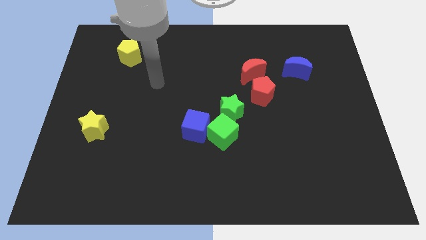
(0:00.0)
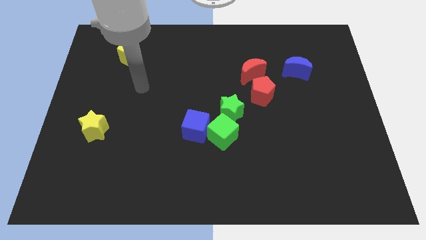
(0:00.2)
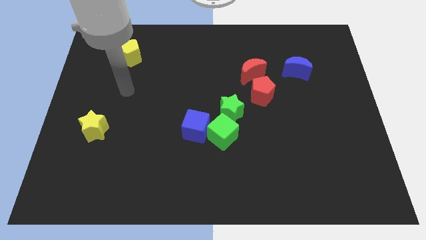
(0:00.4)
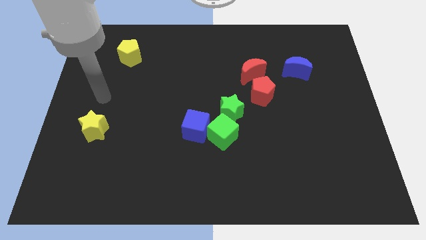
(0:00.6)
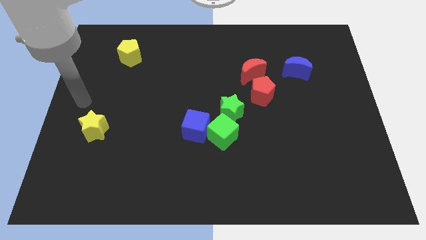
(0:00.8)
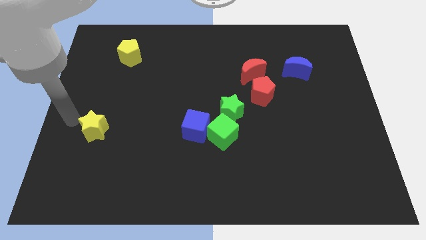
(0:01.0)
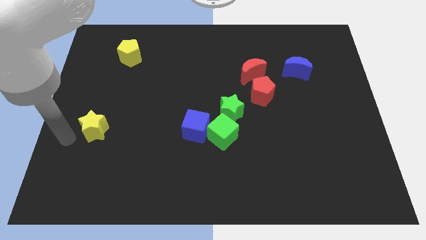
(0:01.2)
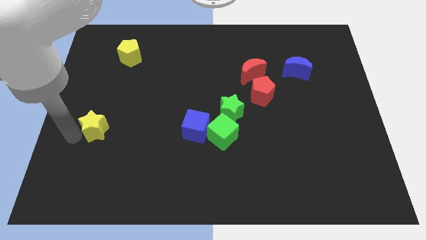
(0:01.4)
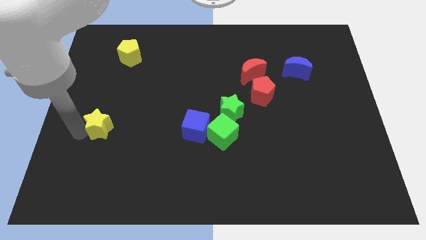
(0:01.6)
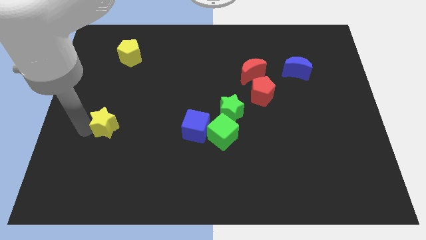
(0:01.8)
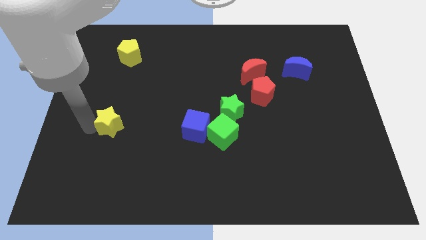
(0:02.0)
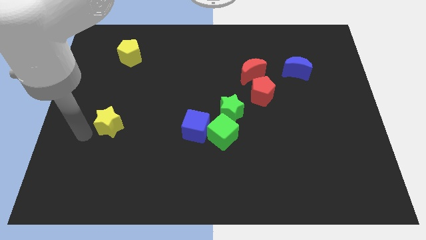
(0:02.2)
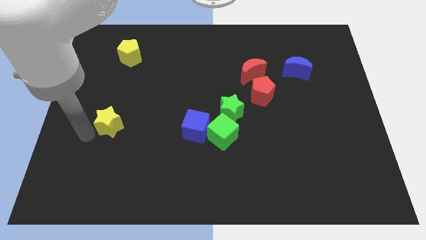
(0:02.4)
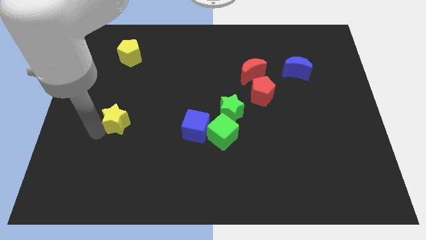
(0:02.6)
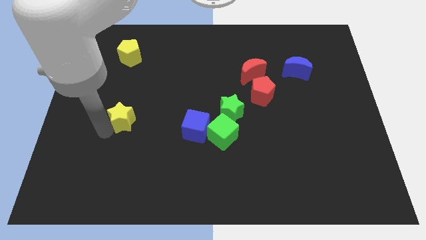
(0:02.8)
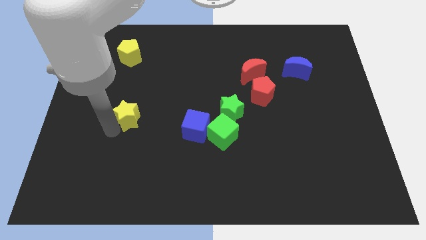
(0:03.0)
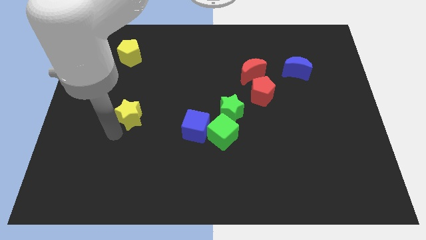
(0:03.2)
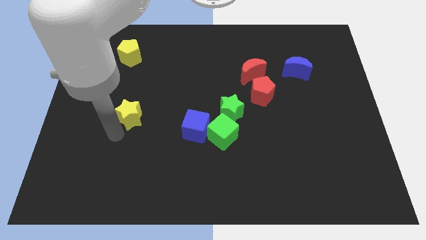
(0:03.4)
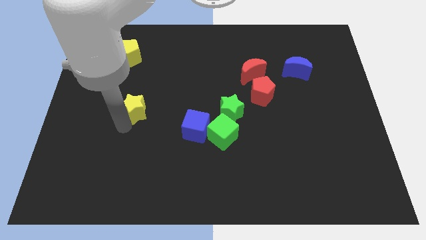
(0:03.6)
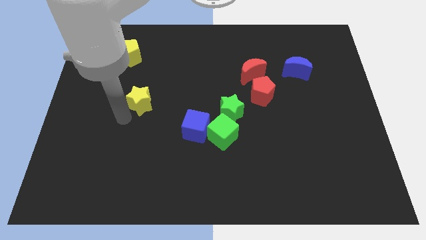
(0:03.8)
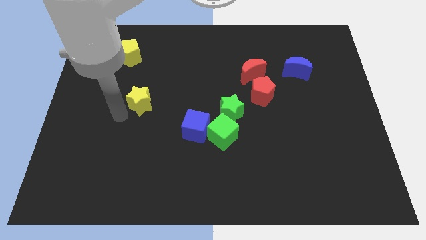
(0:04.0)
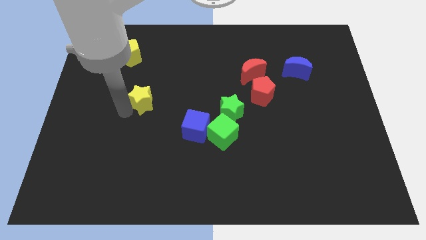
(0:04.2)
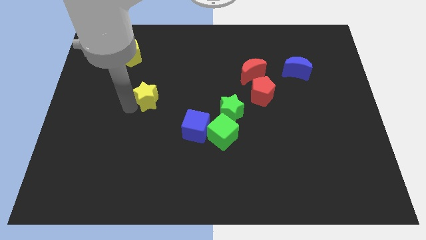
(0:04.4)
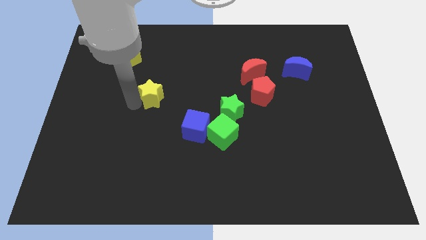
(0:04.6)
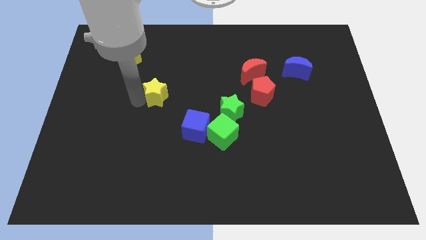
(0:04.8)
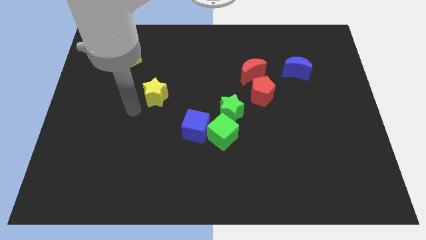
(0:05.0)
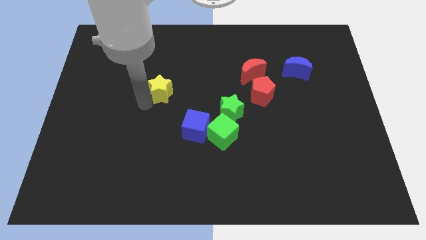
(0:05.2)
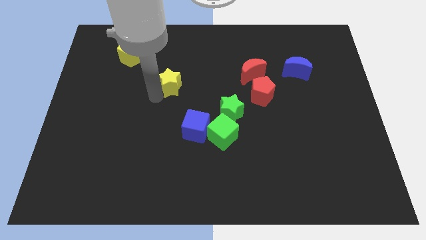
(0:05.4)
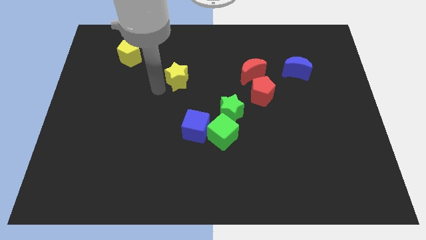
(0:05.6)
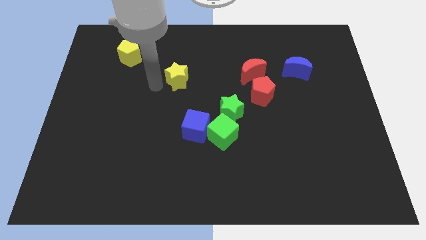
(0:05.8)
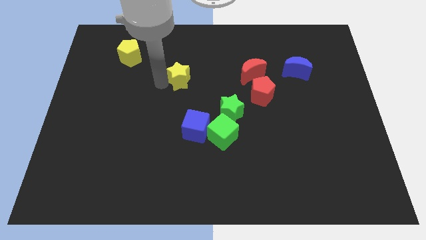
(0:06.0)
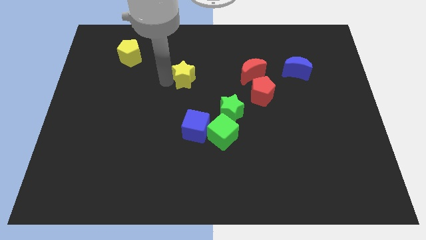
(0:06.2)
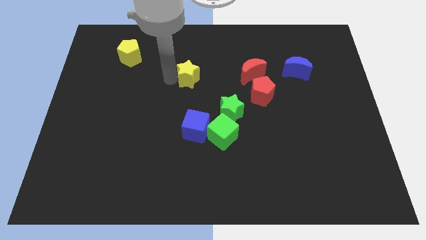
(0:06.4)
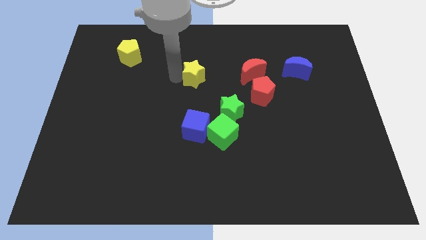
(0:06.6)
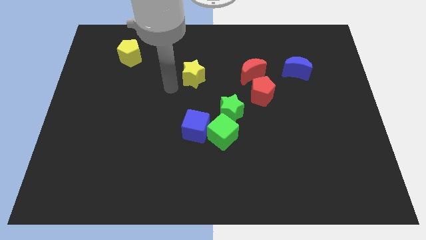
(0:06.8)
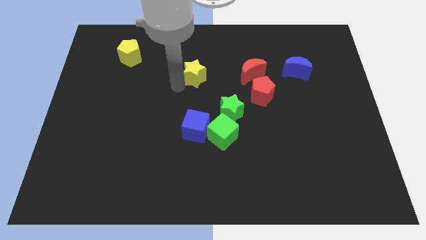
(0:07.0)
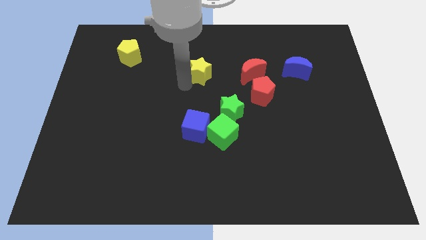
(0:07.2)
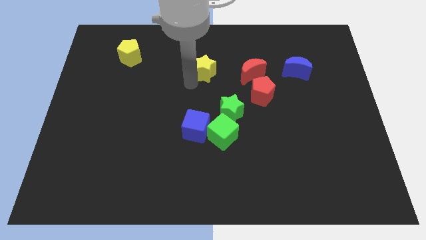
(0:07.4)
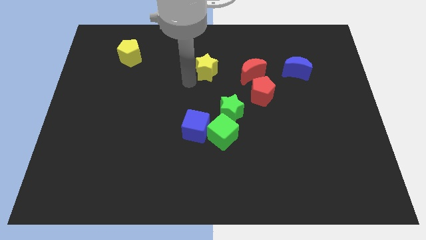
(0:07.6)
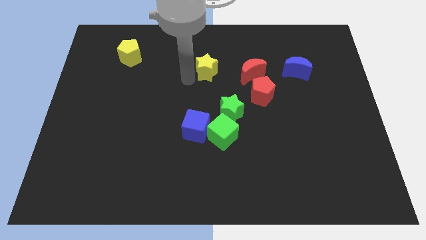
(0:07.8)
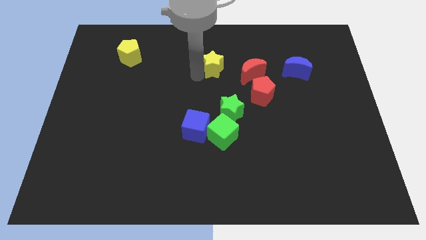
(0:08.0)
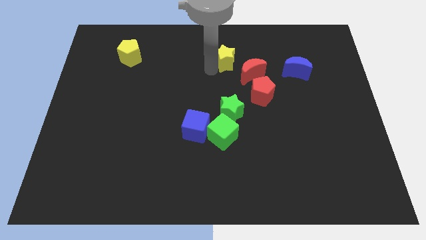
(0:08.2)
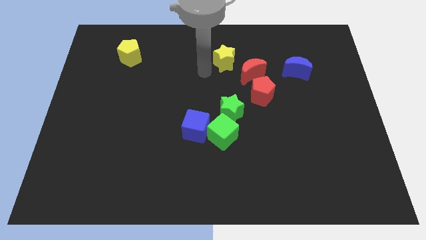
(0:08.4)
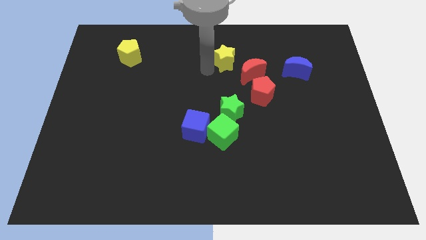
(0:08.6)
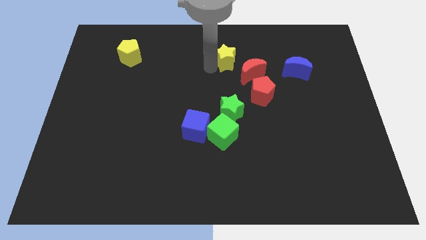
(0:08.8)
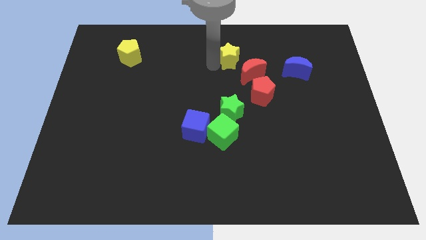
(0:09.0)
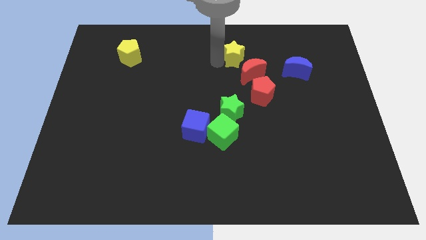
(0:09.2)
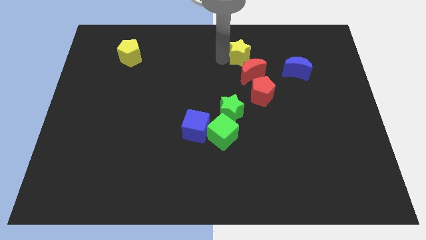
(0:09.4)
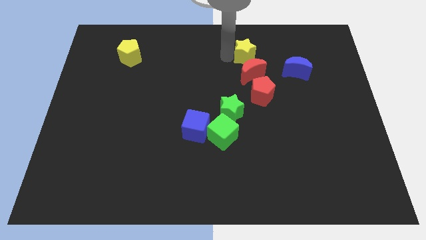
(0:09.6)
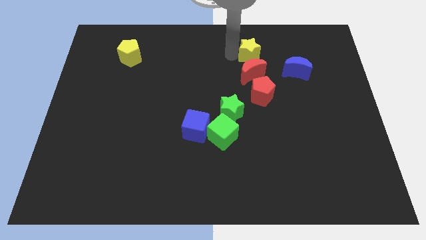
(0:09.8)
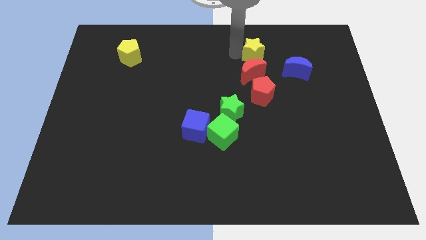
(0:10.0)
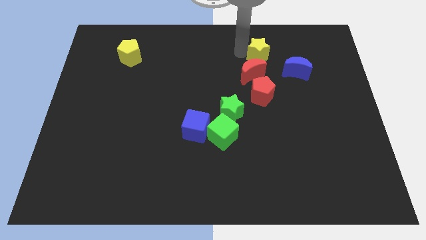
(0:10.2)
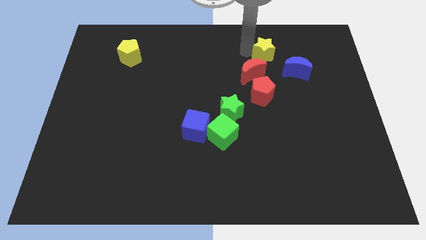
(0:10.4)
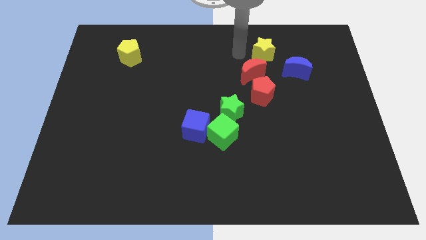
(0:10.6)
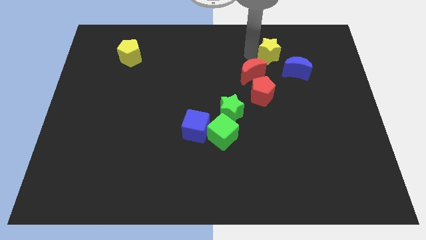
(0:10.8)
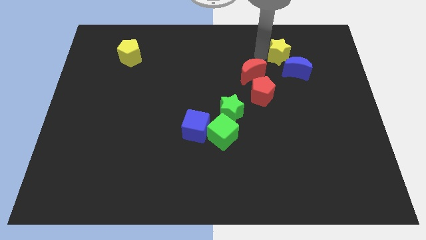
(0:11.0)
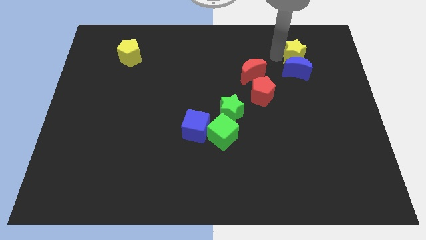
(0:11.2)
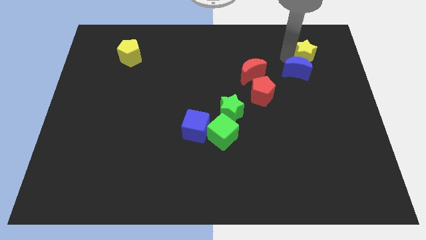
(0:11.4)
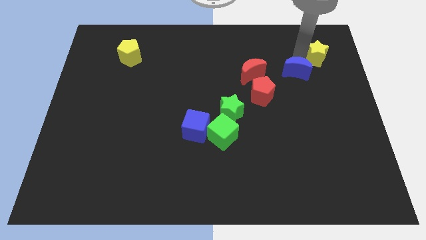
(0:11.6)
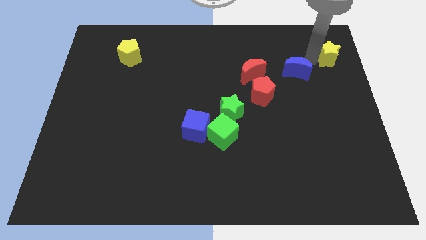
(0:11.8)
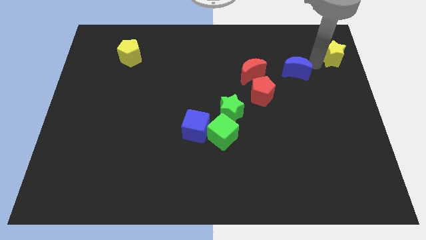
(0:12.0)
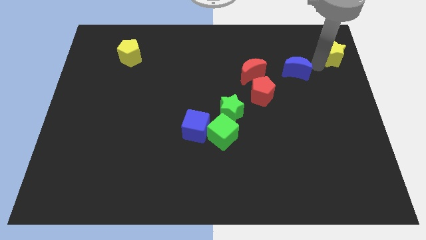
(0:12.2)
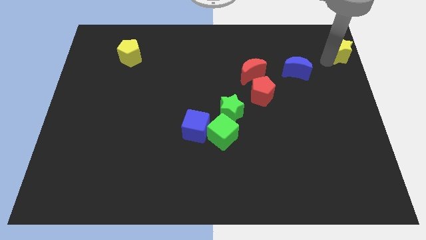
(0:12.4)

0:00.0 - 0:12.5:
push the yellow star to the top right
